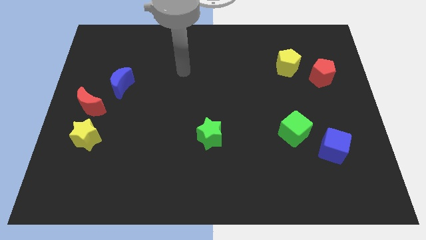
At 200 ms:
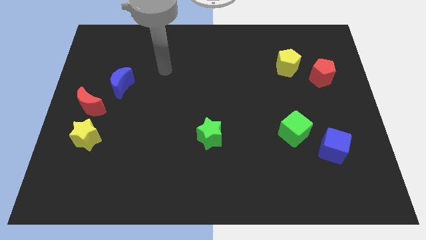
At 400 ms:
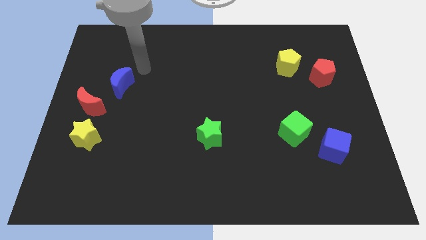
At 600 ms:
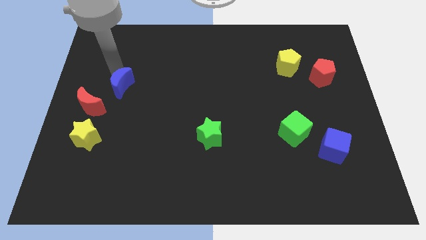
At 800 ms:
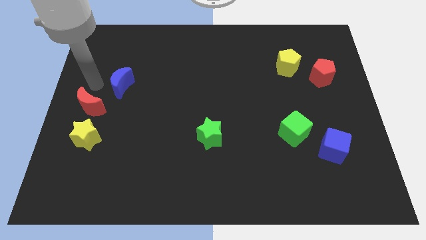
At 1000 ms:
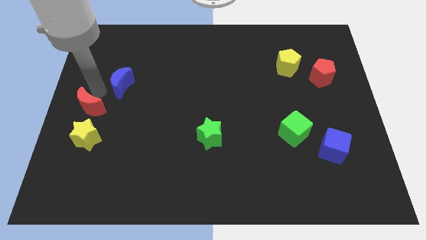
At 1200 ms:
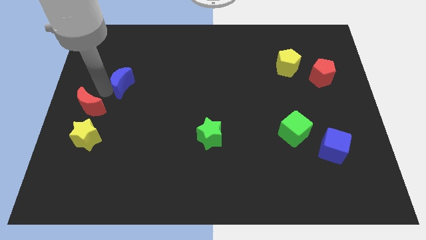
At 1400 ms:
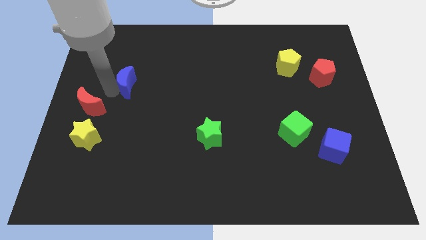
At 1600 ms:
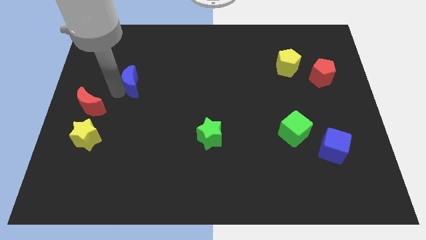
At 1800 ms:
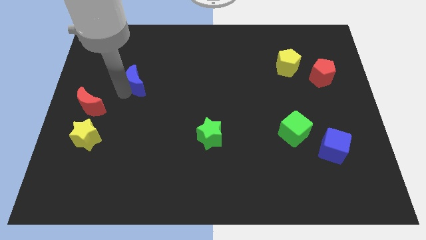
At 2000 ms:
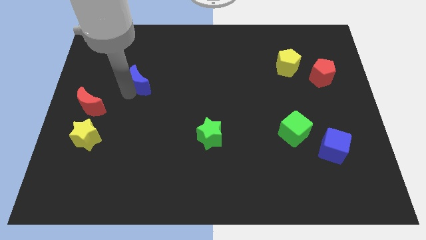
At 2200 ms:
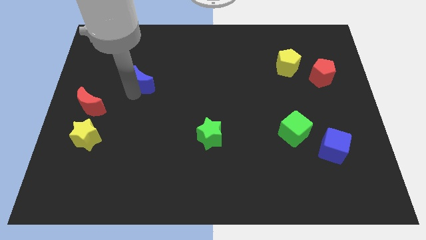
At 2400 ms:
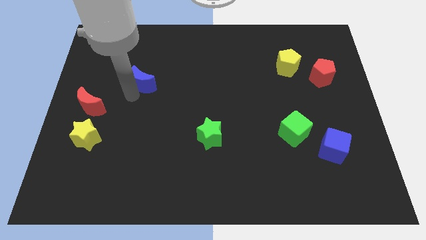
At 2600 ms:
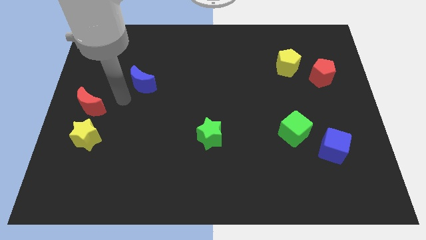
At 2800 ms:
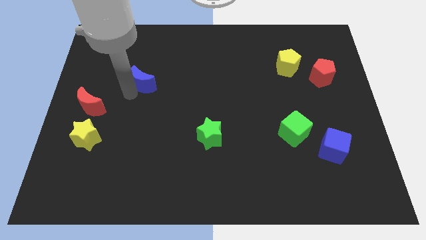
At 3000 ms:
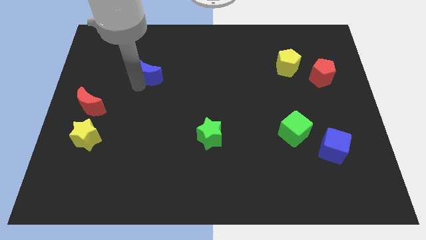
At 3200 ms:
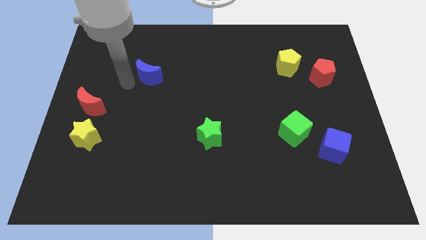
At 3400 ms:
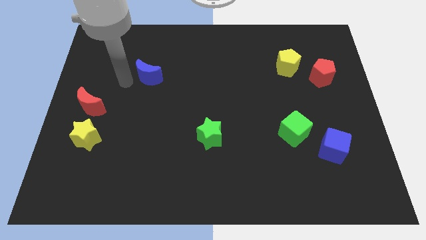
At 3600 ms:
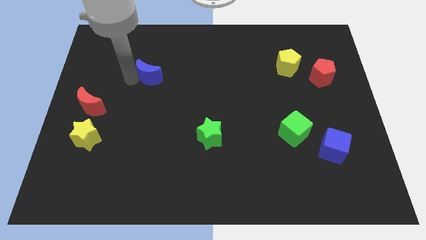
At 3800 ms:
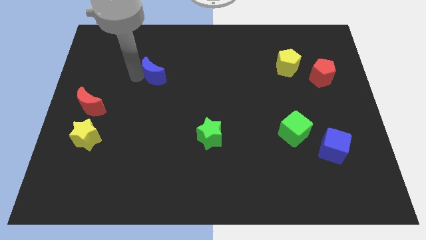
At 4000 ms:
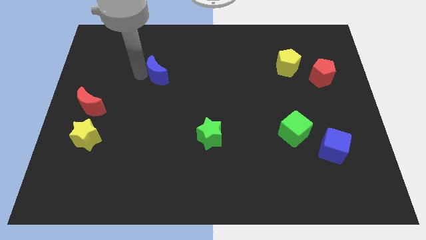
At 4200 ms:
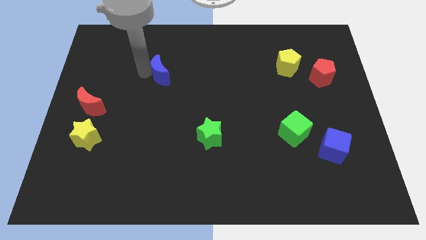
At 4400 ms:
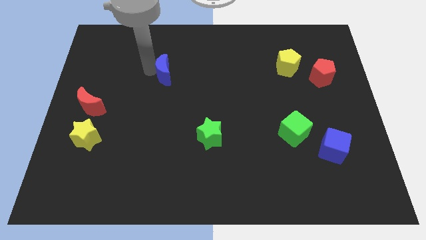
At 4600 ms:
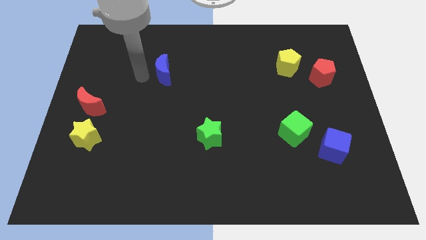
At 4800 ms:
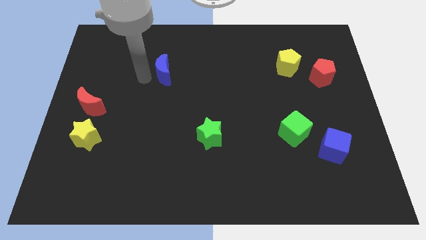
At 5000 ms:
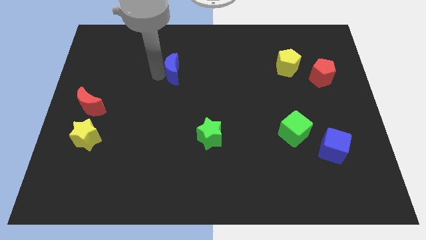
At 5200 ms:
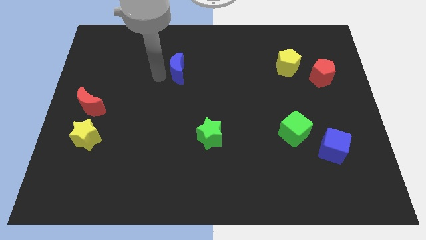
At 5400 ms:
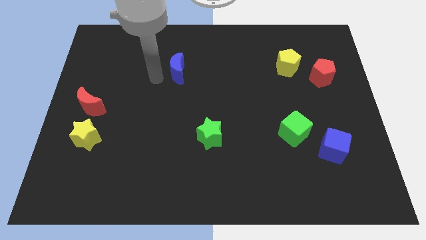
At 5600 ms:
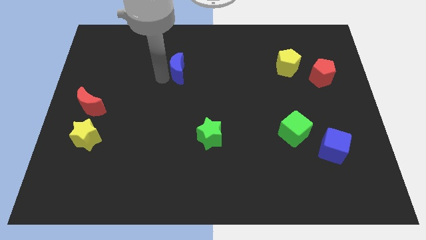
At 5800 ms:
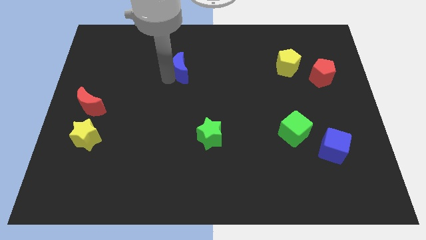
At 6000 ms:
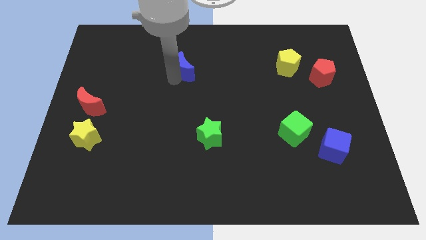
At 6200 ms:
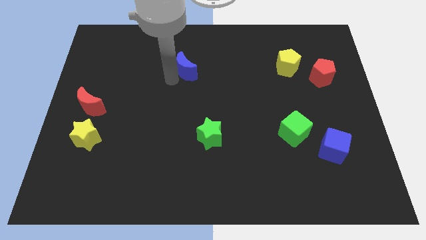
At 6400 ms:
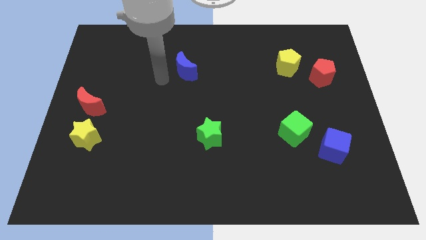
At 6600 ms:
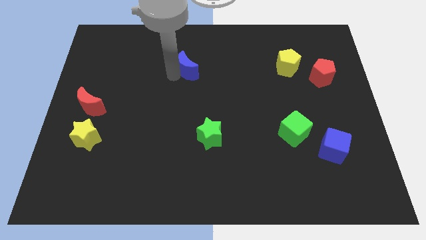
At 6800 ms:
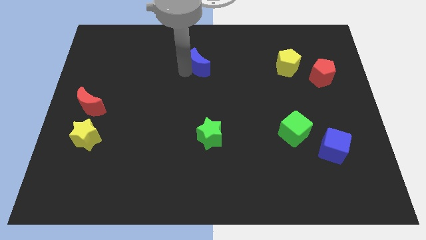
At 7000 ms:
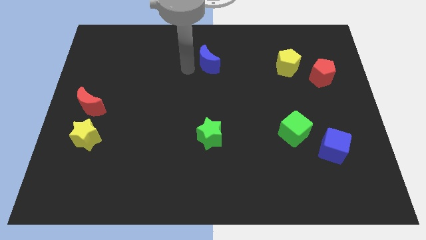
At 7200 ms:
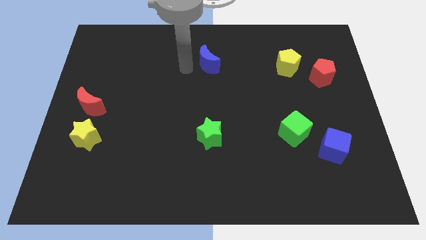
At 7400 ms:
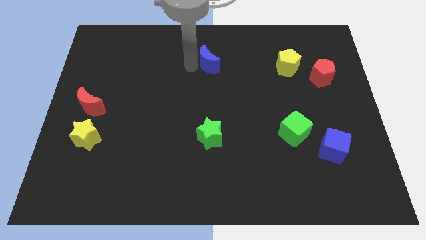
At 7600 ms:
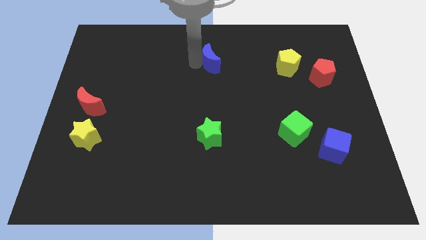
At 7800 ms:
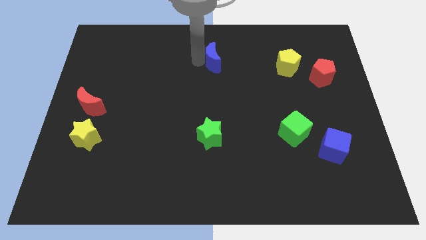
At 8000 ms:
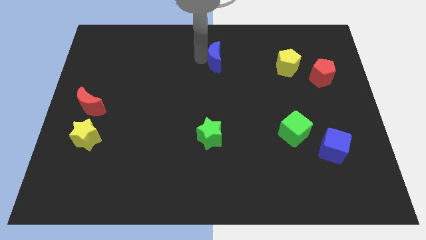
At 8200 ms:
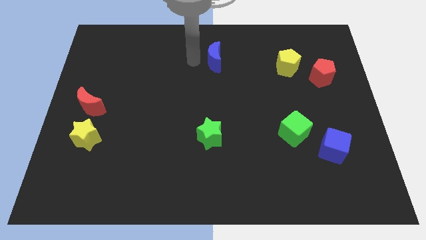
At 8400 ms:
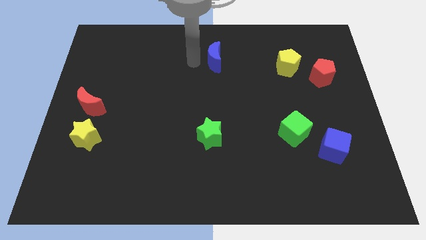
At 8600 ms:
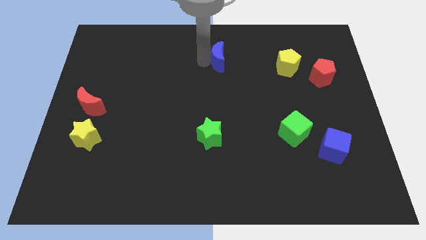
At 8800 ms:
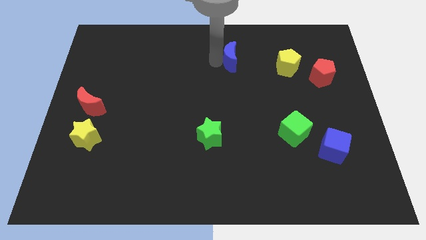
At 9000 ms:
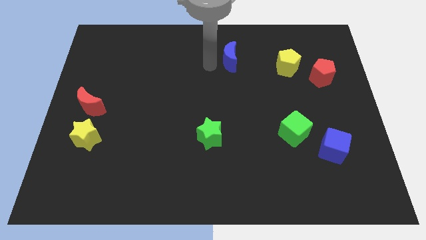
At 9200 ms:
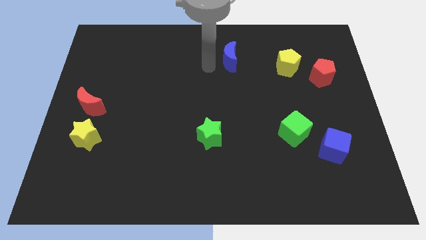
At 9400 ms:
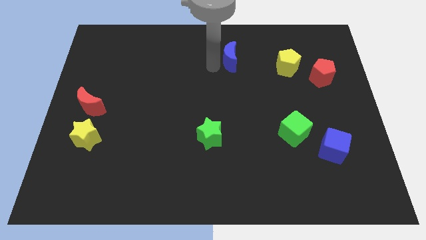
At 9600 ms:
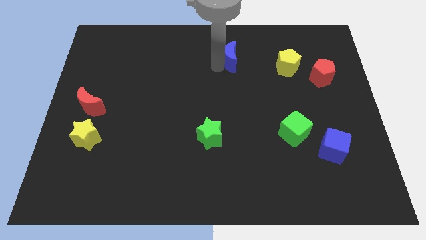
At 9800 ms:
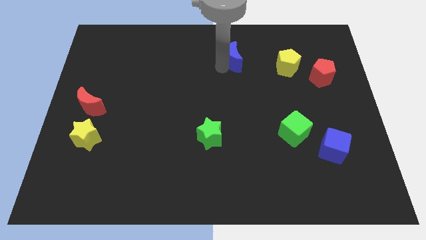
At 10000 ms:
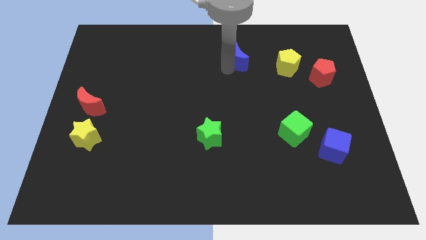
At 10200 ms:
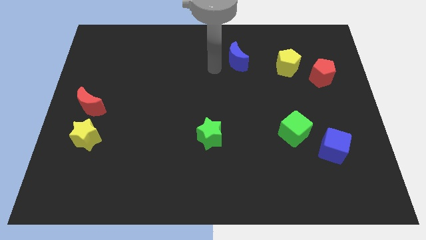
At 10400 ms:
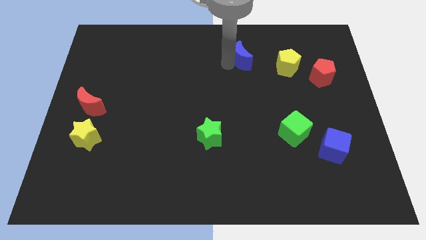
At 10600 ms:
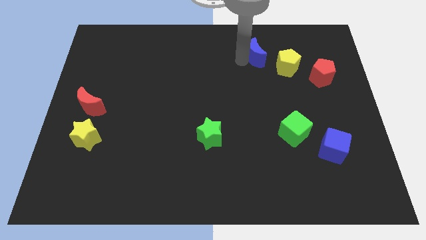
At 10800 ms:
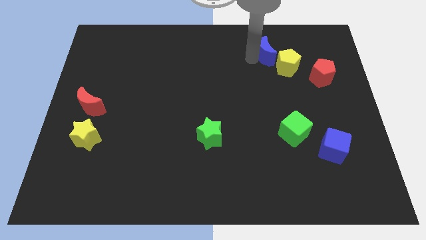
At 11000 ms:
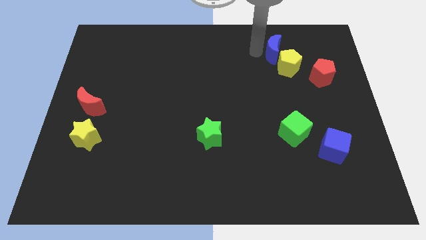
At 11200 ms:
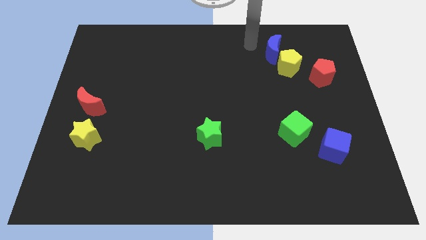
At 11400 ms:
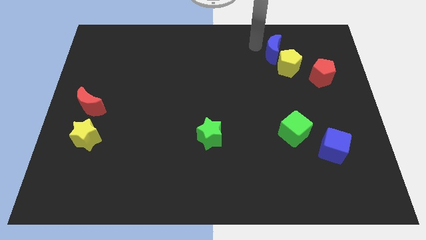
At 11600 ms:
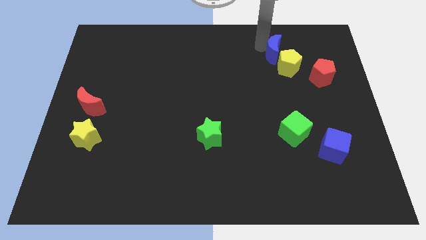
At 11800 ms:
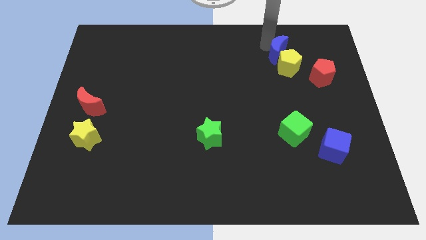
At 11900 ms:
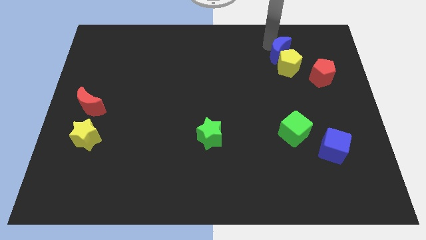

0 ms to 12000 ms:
move the blue moon to the top left side of the red pentagon

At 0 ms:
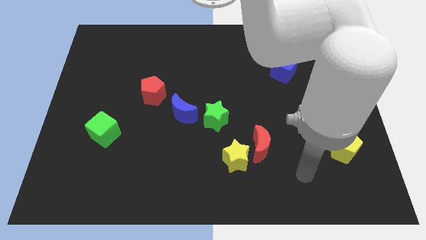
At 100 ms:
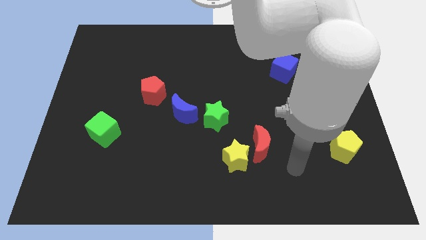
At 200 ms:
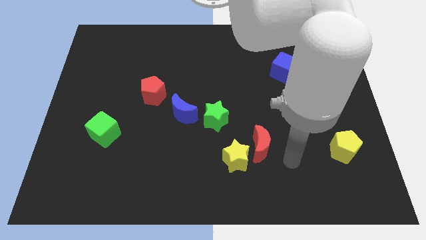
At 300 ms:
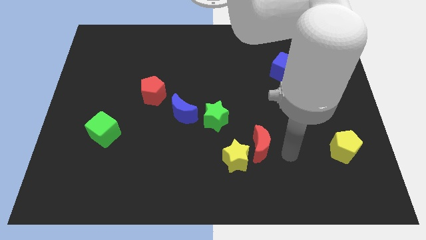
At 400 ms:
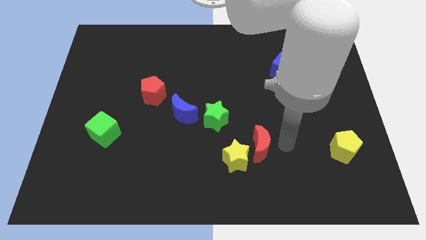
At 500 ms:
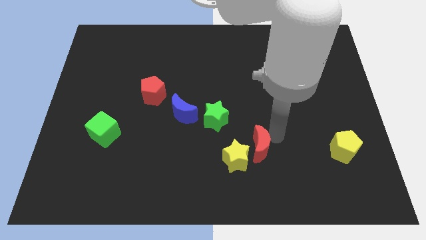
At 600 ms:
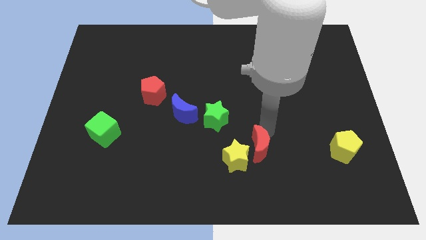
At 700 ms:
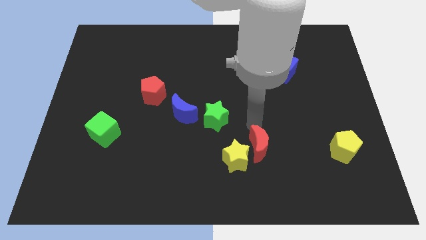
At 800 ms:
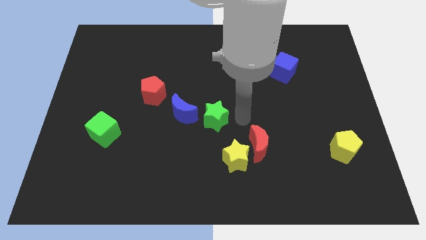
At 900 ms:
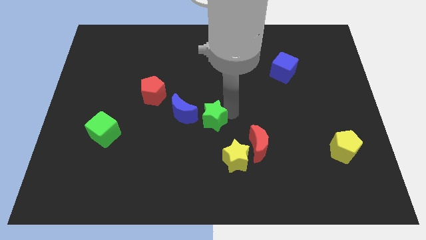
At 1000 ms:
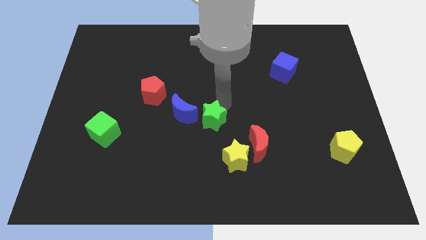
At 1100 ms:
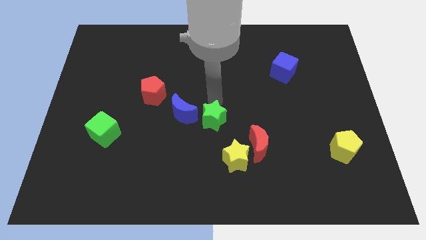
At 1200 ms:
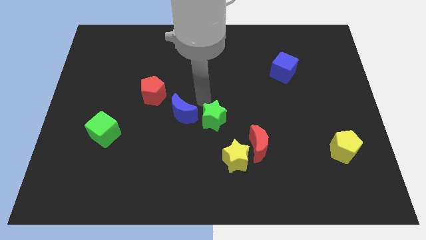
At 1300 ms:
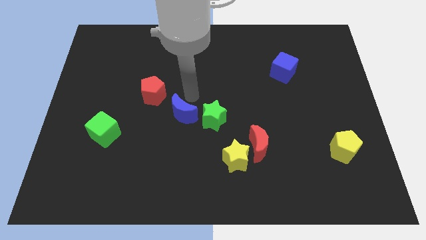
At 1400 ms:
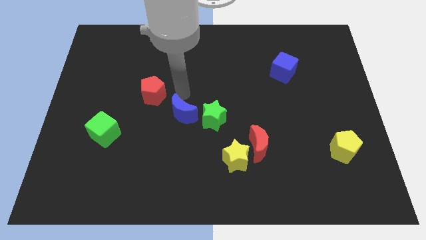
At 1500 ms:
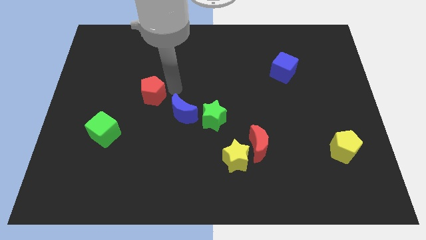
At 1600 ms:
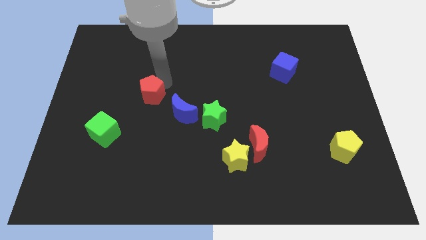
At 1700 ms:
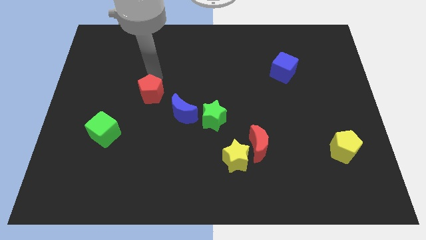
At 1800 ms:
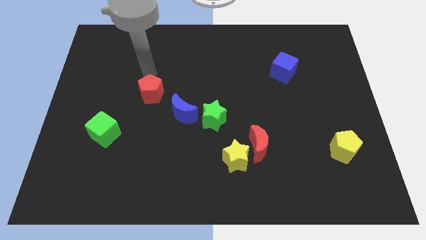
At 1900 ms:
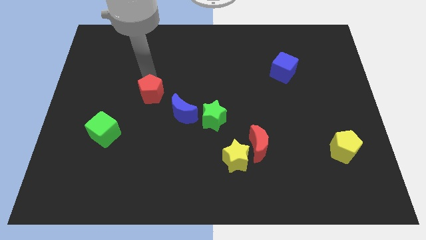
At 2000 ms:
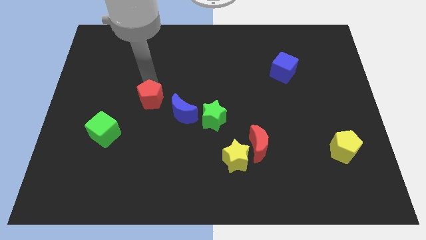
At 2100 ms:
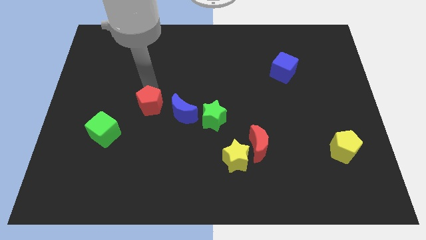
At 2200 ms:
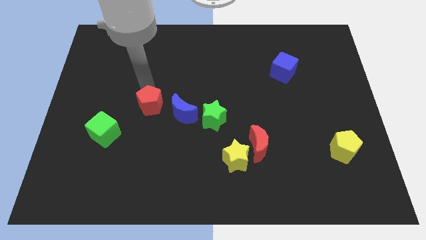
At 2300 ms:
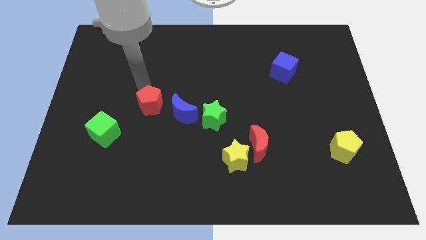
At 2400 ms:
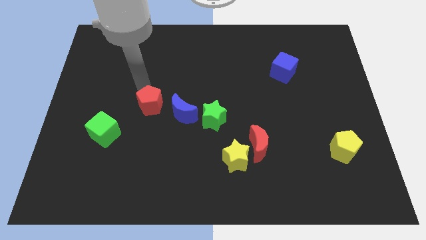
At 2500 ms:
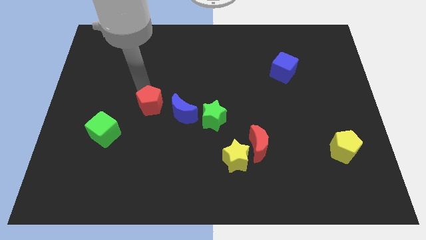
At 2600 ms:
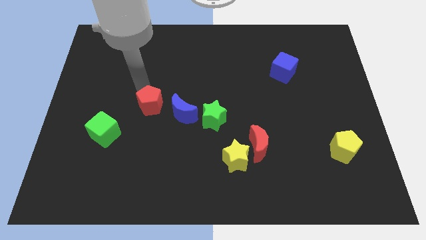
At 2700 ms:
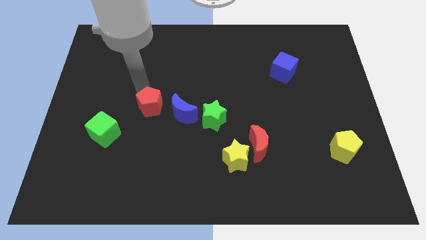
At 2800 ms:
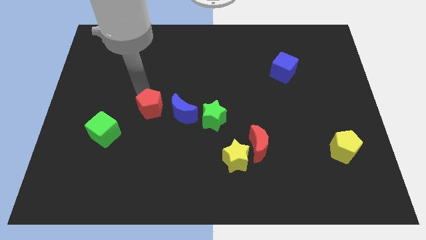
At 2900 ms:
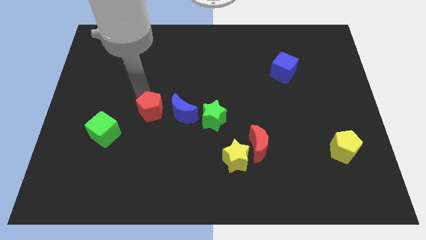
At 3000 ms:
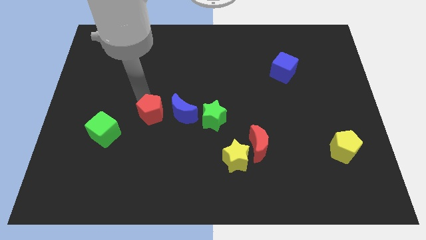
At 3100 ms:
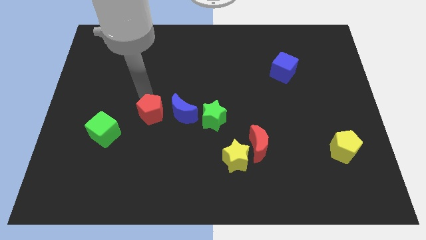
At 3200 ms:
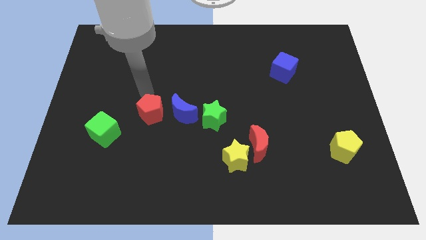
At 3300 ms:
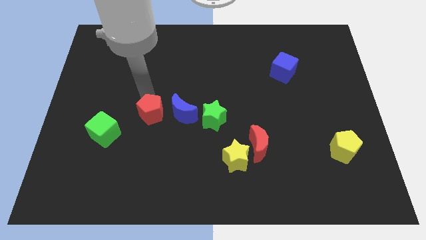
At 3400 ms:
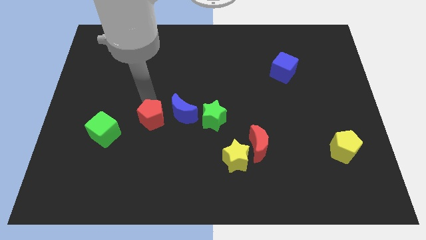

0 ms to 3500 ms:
move the red pentagon to the bottom left of the blue moon
